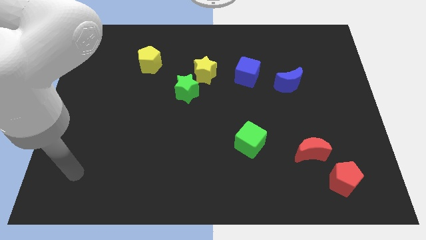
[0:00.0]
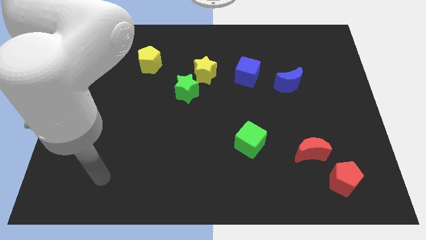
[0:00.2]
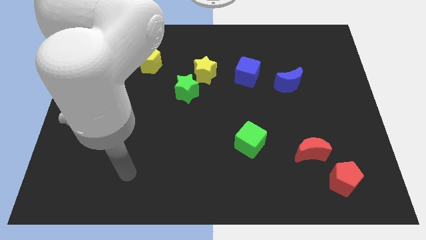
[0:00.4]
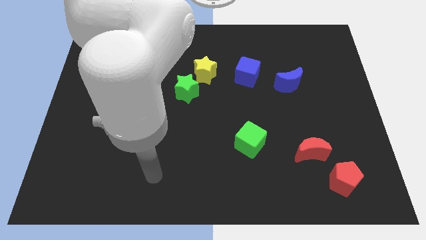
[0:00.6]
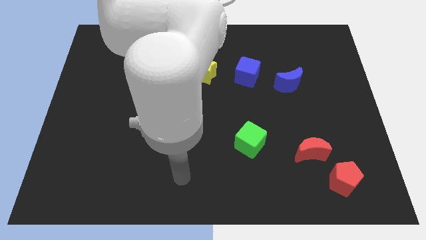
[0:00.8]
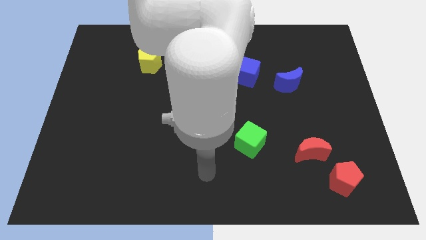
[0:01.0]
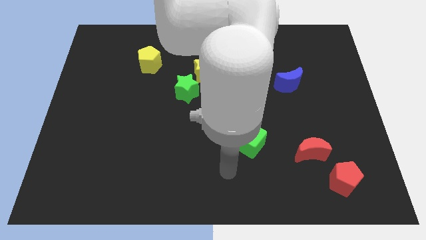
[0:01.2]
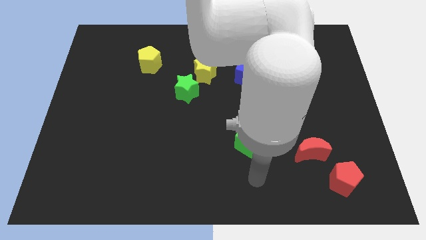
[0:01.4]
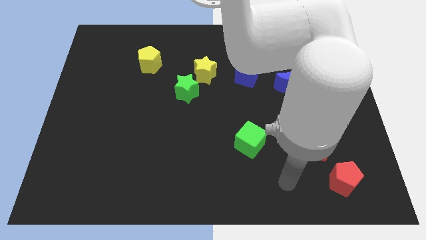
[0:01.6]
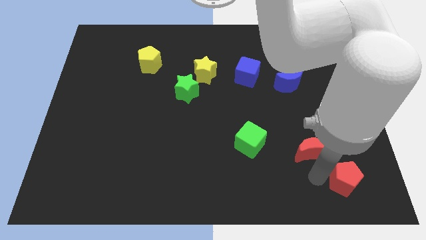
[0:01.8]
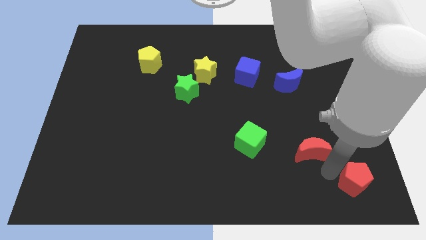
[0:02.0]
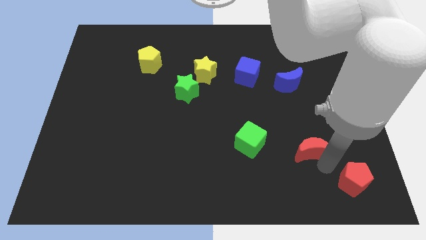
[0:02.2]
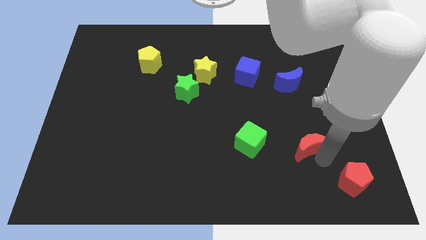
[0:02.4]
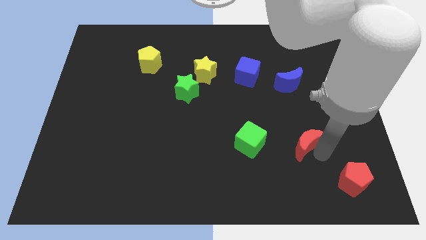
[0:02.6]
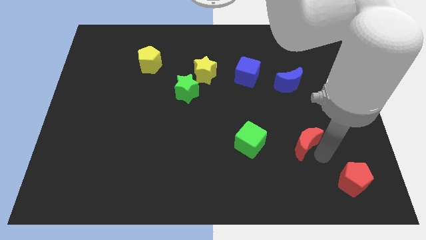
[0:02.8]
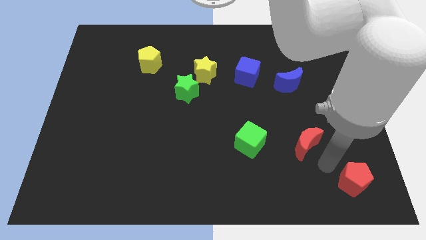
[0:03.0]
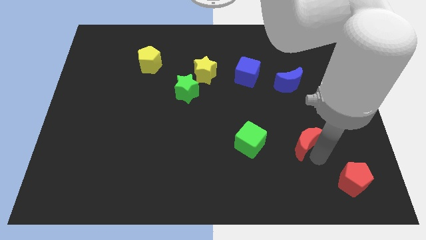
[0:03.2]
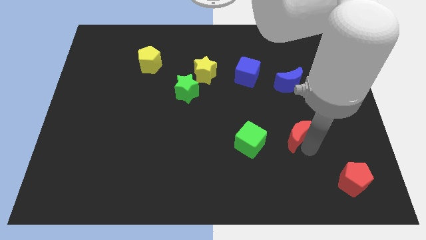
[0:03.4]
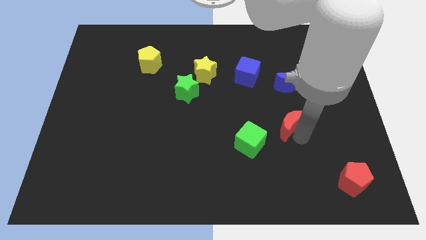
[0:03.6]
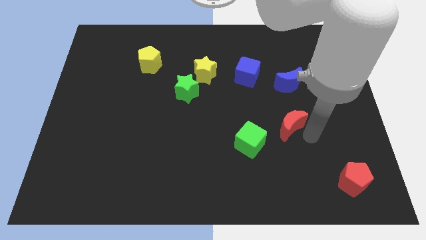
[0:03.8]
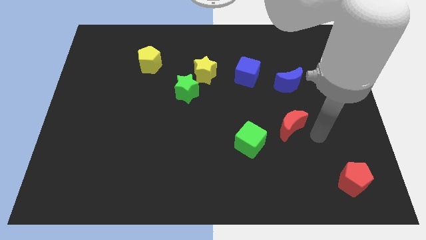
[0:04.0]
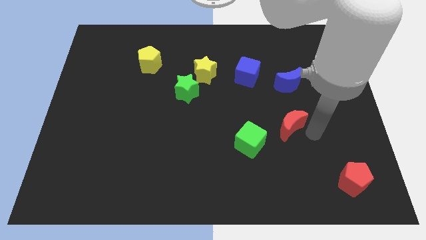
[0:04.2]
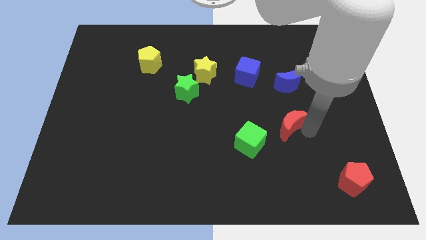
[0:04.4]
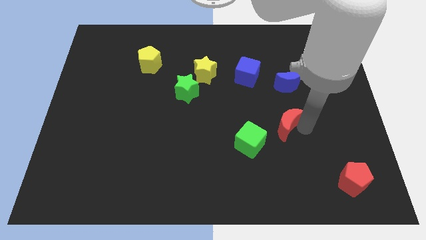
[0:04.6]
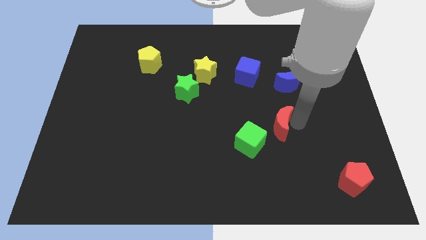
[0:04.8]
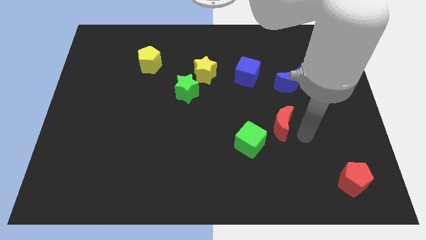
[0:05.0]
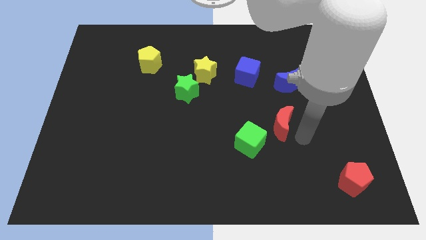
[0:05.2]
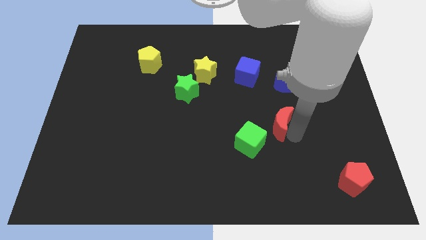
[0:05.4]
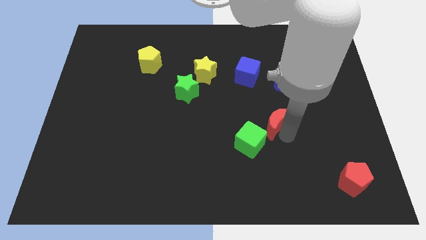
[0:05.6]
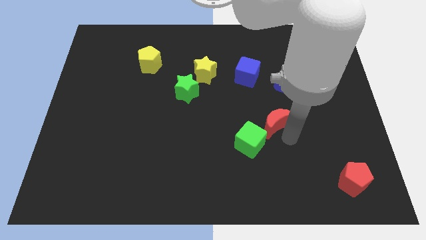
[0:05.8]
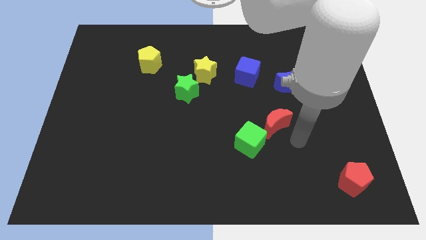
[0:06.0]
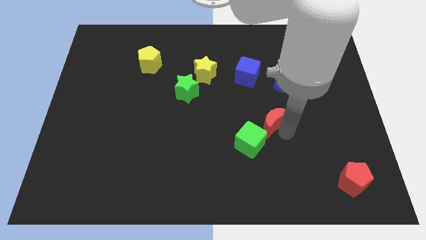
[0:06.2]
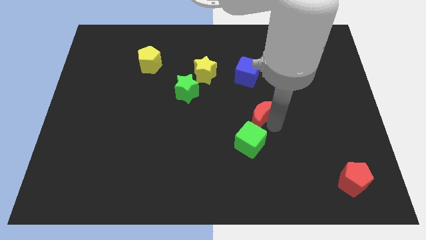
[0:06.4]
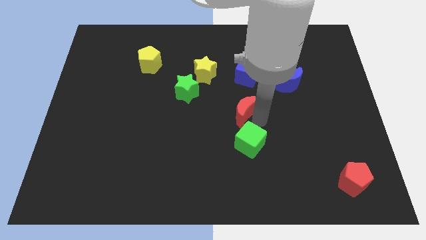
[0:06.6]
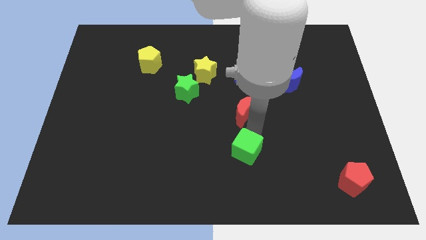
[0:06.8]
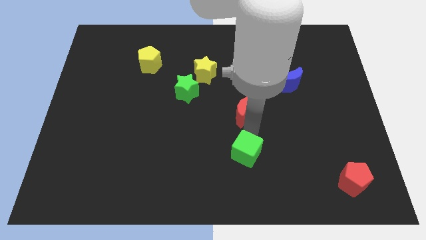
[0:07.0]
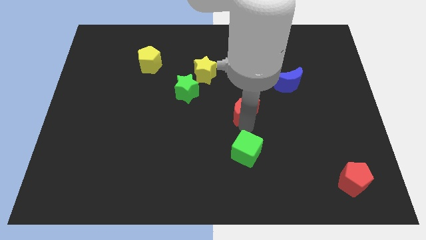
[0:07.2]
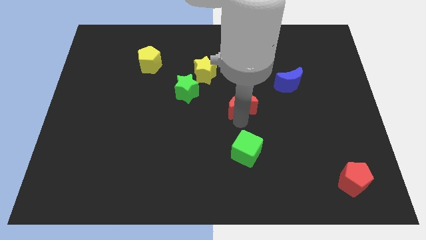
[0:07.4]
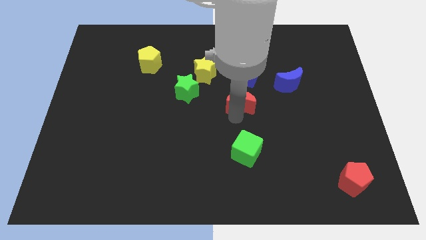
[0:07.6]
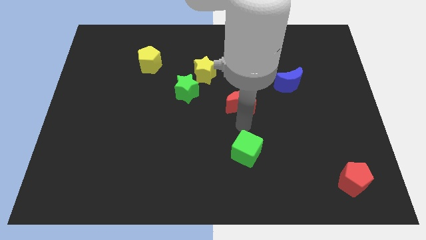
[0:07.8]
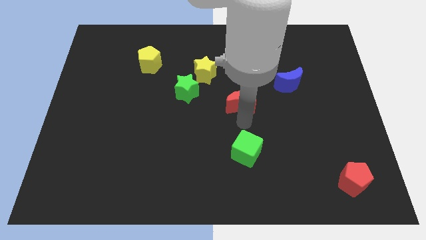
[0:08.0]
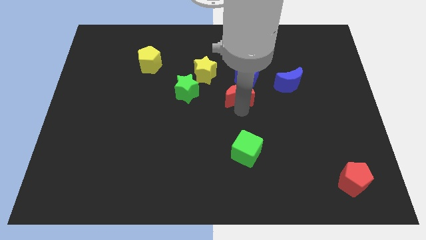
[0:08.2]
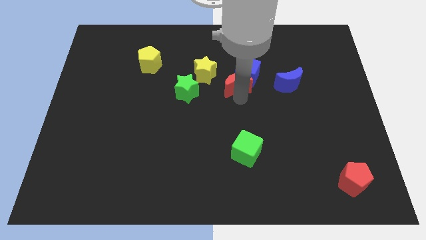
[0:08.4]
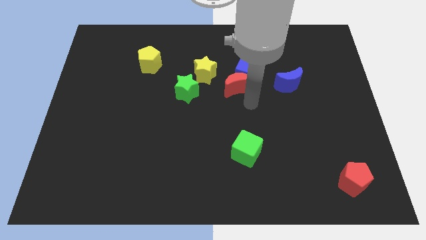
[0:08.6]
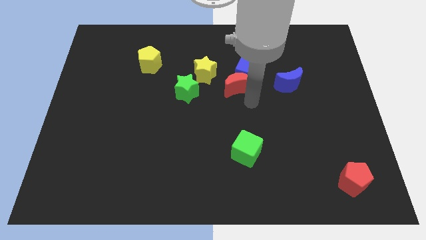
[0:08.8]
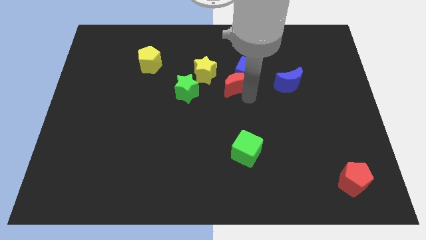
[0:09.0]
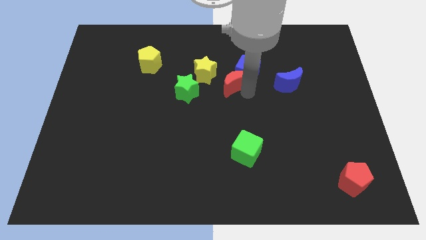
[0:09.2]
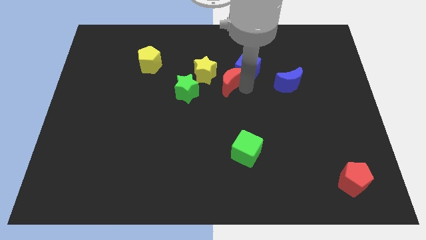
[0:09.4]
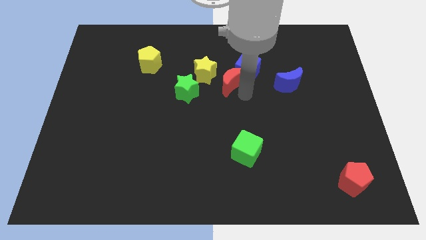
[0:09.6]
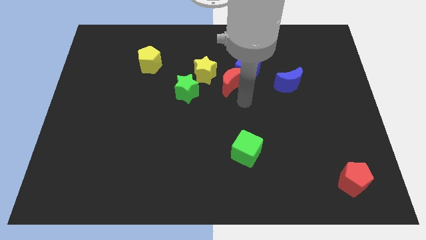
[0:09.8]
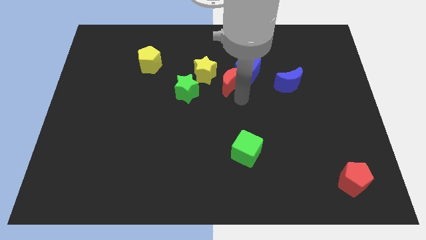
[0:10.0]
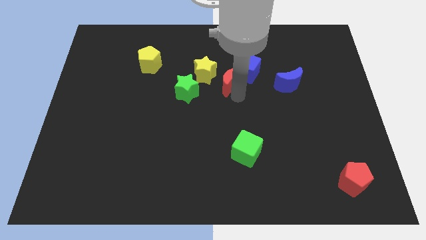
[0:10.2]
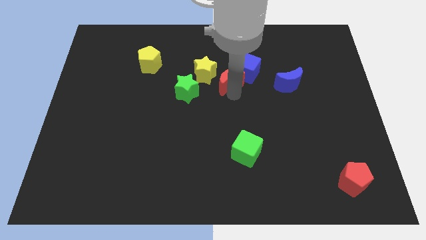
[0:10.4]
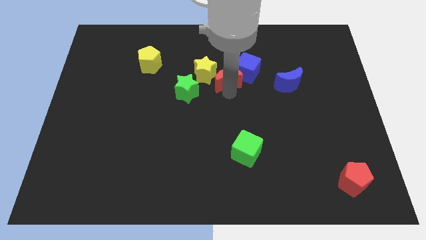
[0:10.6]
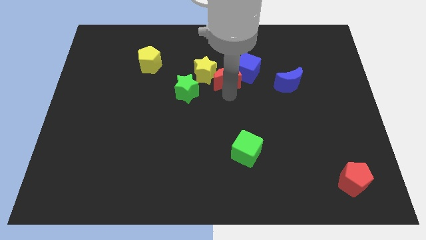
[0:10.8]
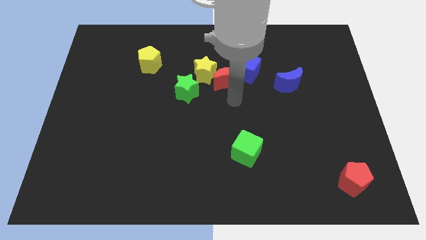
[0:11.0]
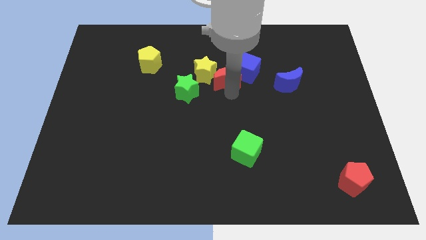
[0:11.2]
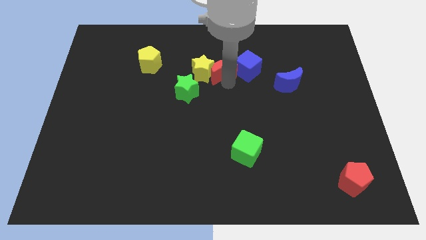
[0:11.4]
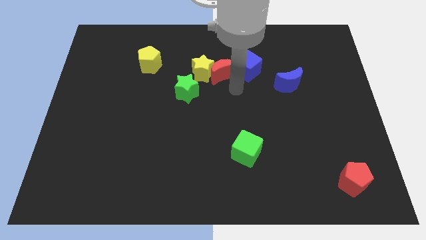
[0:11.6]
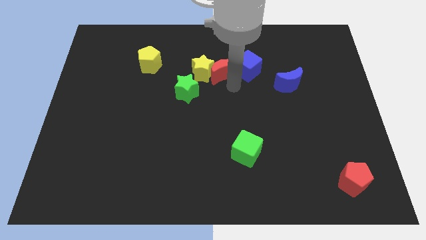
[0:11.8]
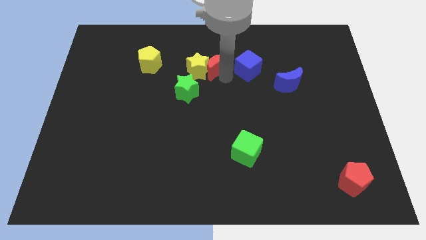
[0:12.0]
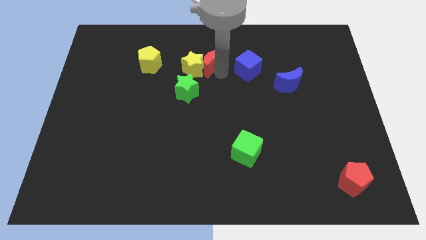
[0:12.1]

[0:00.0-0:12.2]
slide the red moon just right of the yellow pentagon
